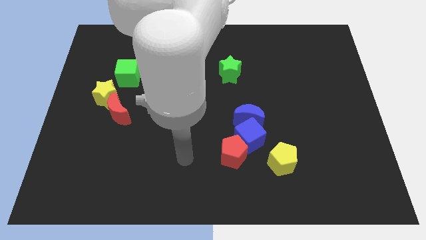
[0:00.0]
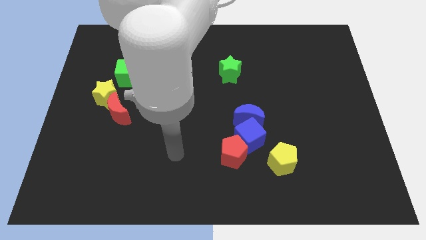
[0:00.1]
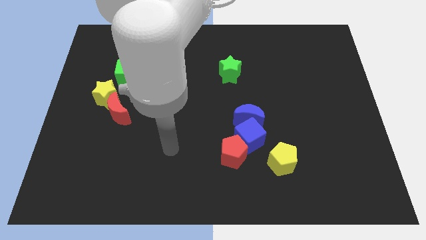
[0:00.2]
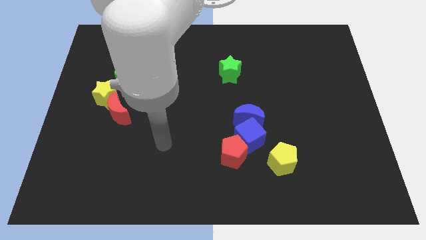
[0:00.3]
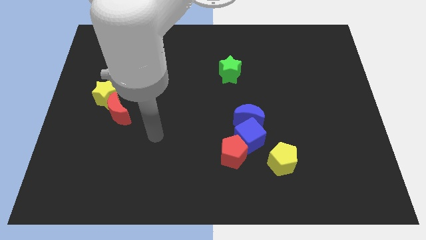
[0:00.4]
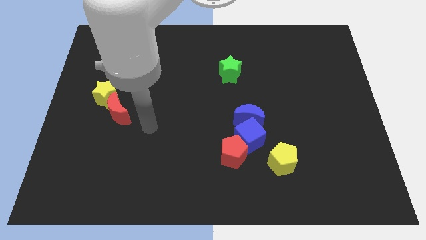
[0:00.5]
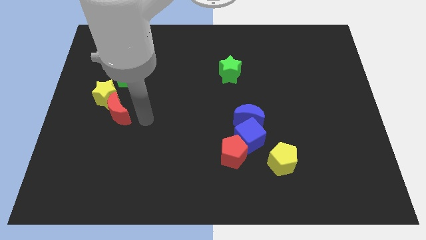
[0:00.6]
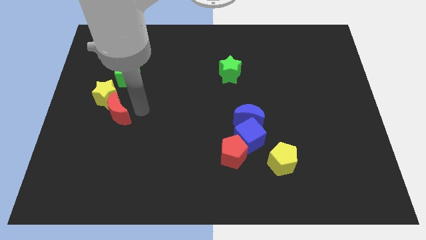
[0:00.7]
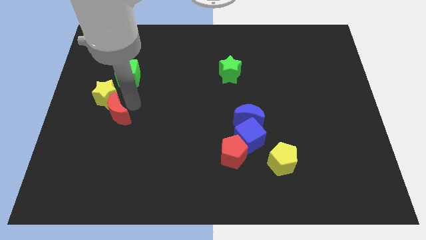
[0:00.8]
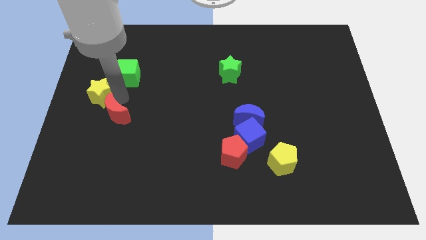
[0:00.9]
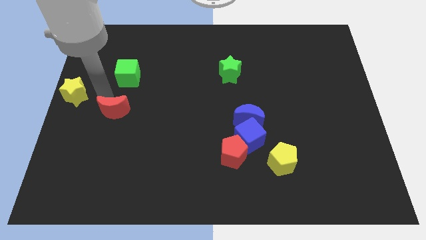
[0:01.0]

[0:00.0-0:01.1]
move the red moon away from the yellow star

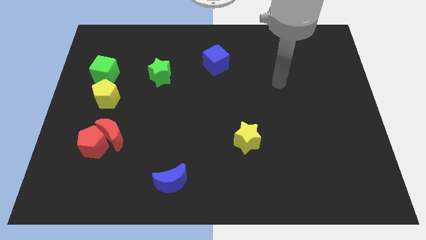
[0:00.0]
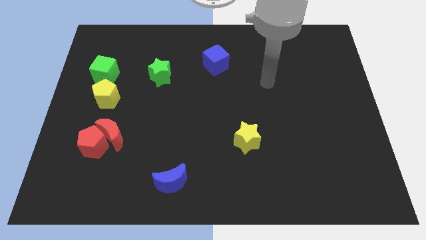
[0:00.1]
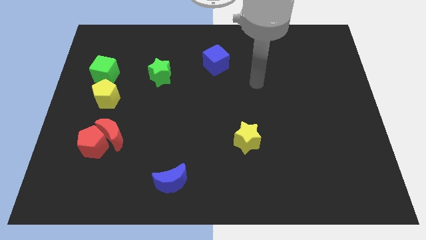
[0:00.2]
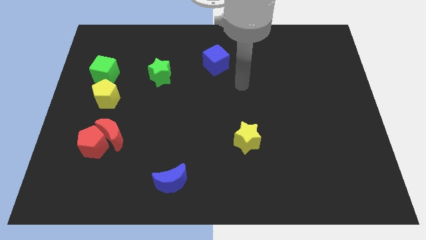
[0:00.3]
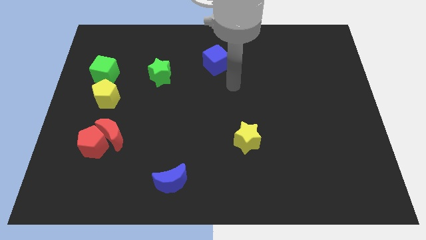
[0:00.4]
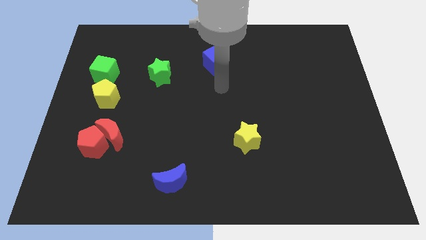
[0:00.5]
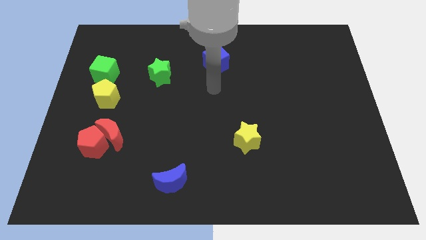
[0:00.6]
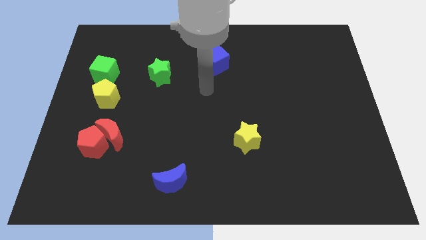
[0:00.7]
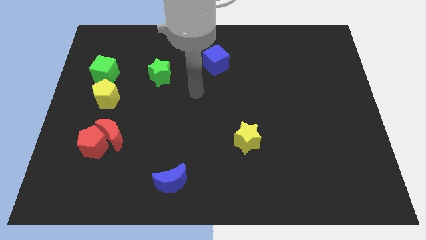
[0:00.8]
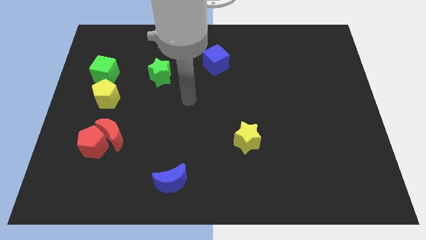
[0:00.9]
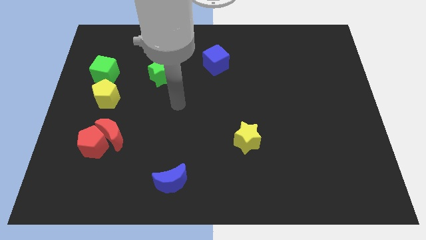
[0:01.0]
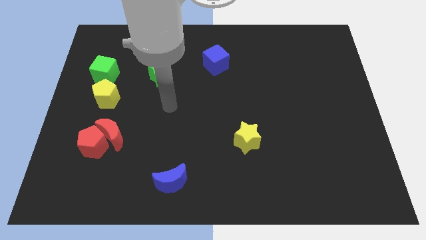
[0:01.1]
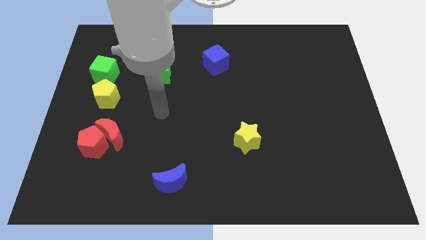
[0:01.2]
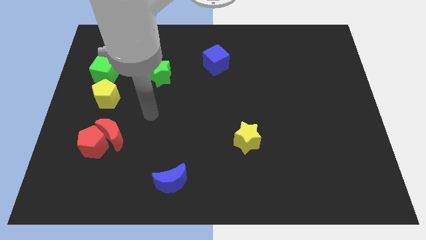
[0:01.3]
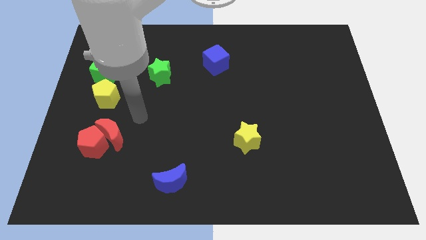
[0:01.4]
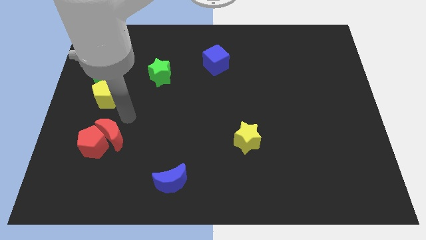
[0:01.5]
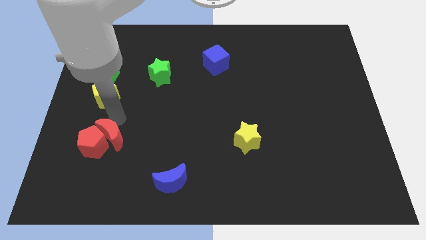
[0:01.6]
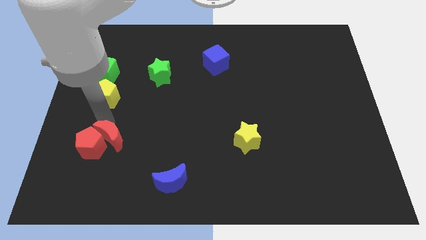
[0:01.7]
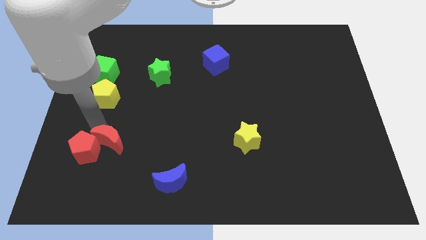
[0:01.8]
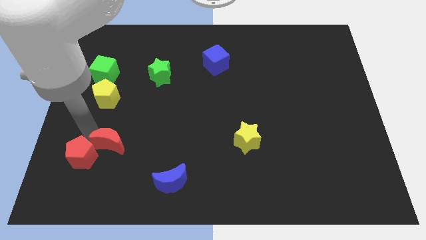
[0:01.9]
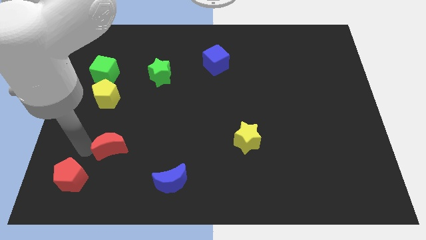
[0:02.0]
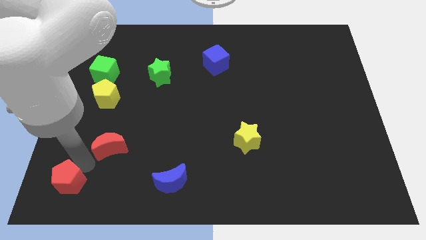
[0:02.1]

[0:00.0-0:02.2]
pull the red moon apart from the red pentagon

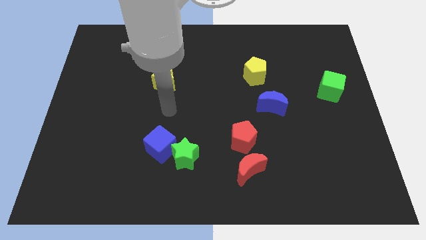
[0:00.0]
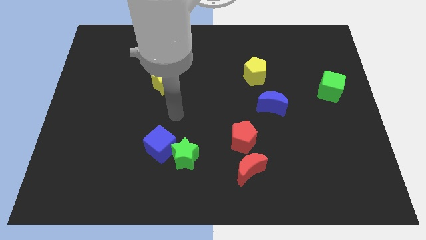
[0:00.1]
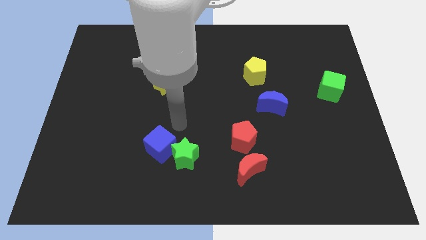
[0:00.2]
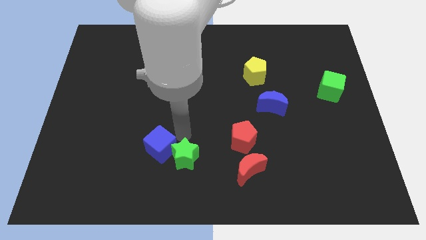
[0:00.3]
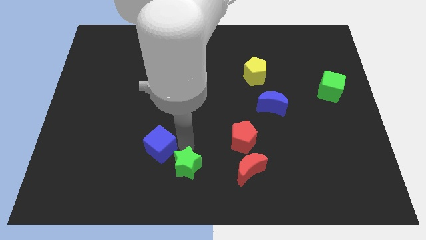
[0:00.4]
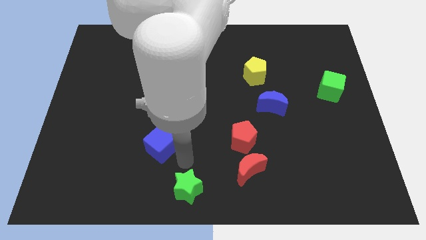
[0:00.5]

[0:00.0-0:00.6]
separate the blue cube from the green star

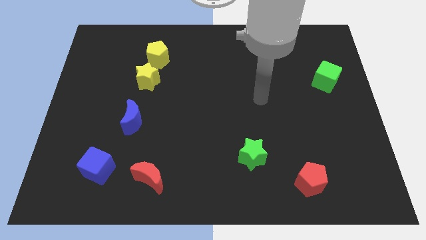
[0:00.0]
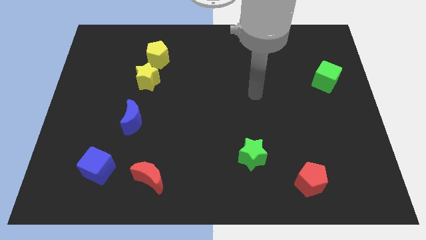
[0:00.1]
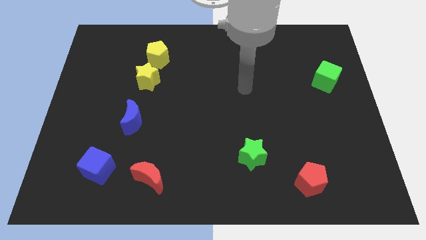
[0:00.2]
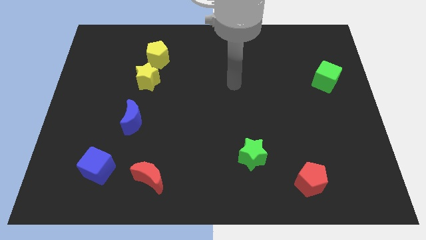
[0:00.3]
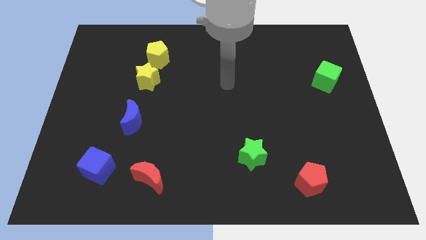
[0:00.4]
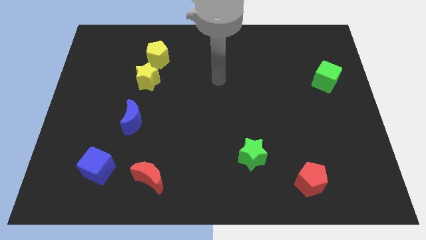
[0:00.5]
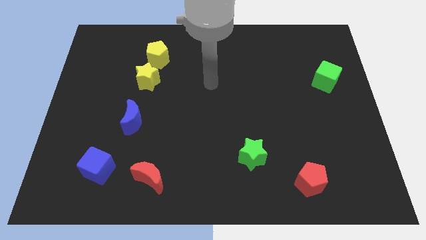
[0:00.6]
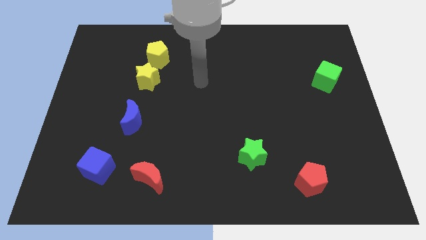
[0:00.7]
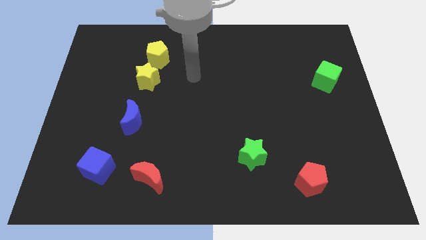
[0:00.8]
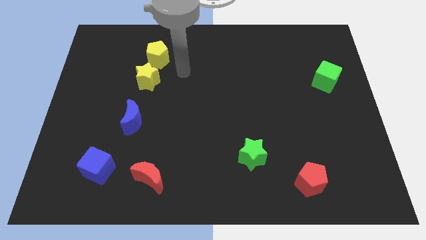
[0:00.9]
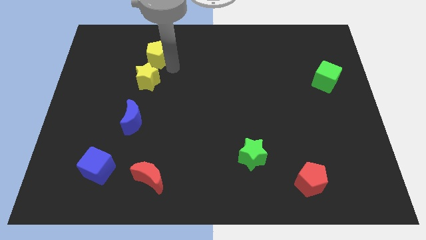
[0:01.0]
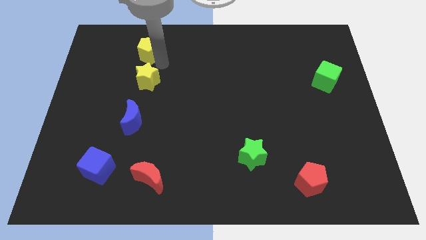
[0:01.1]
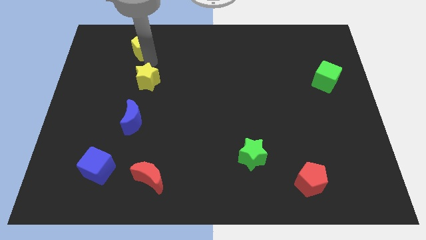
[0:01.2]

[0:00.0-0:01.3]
pull the yellow star apart from the yellow pentagon

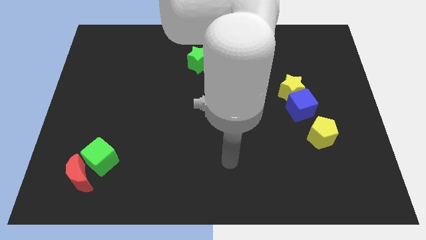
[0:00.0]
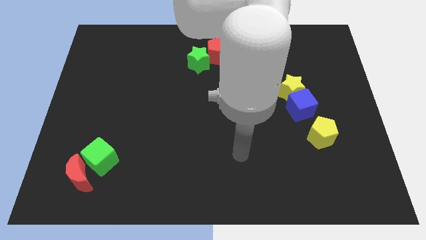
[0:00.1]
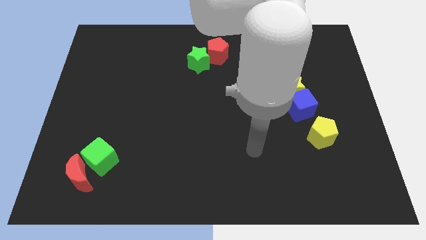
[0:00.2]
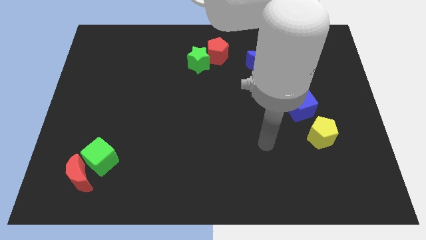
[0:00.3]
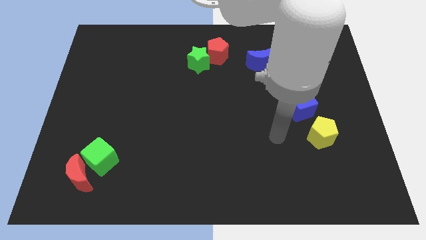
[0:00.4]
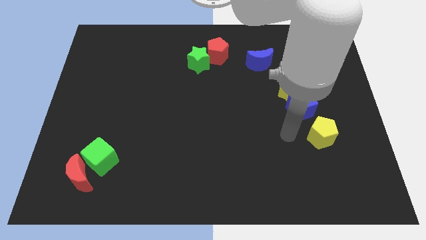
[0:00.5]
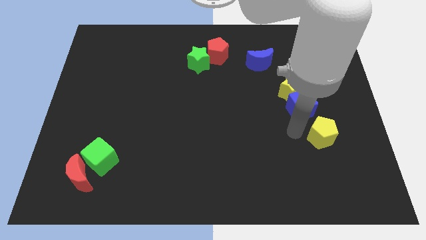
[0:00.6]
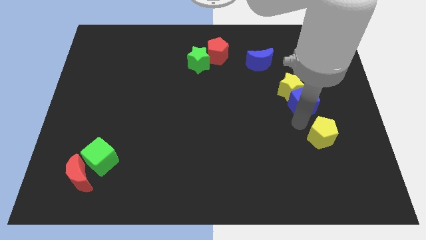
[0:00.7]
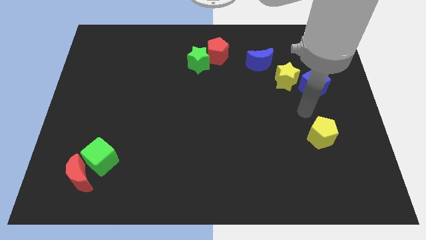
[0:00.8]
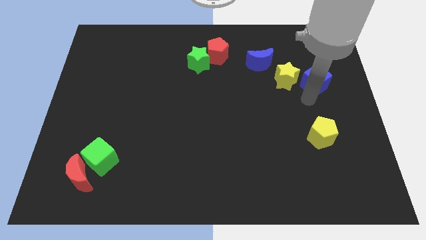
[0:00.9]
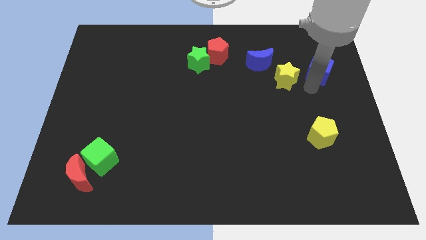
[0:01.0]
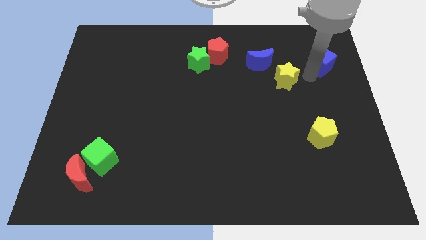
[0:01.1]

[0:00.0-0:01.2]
pull the yellow star apart from the blue cube

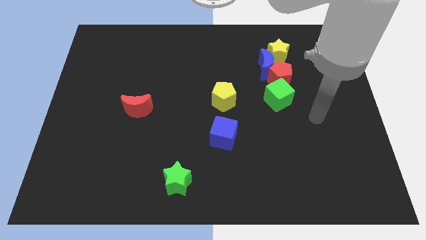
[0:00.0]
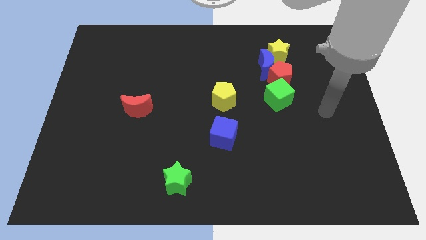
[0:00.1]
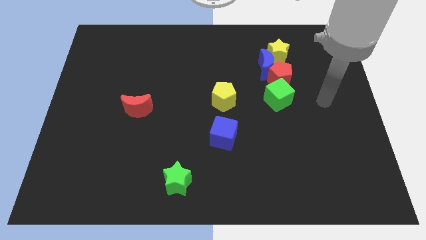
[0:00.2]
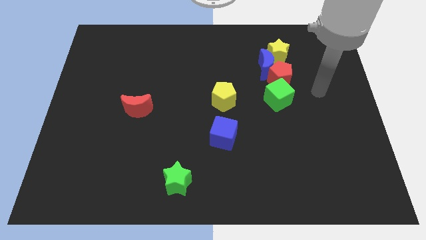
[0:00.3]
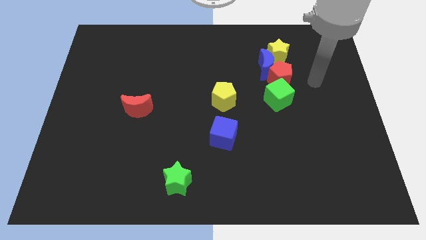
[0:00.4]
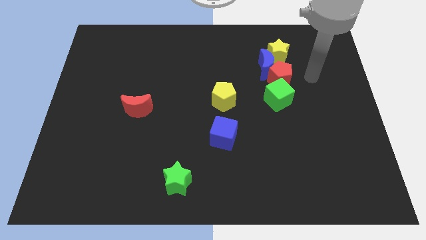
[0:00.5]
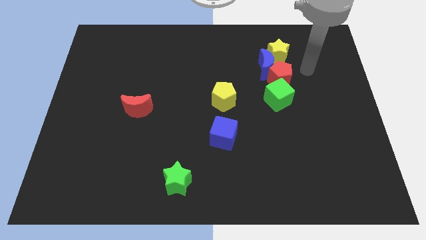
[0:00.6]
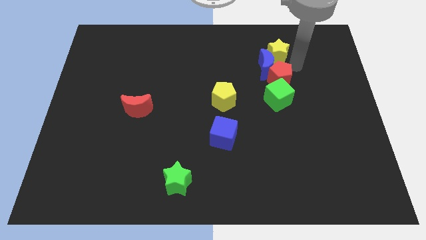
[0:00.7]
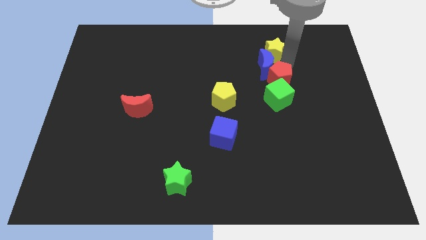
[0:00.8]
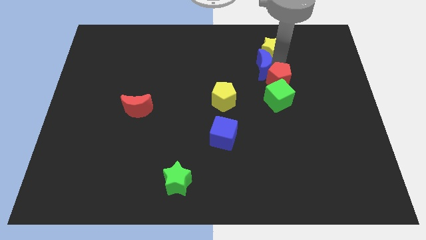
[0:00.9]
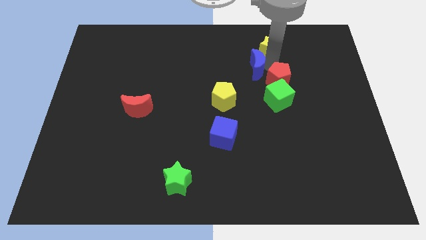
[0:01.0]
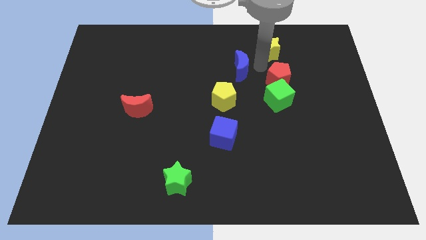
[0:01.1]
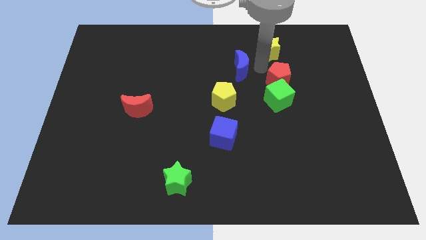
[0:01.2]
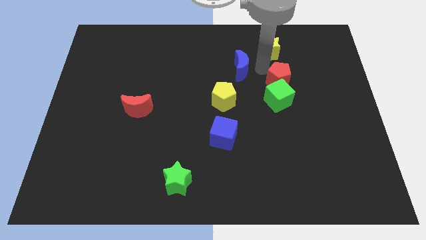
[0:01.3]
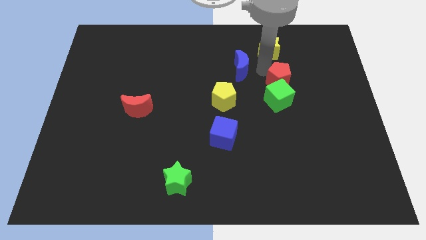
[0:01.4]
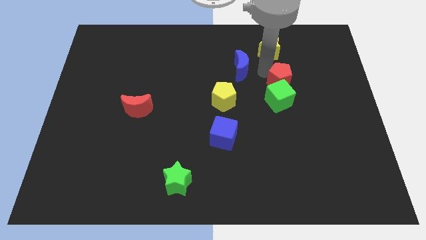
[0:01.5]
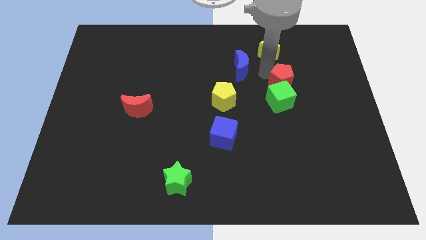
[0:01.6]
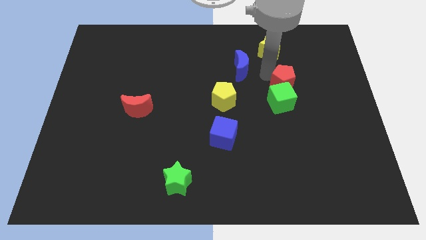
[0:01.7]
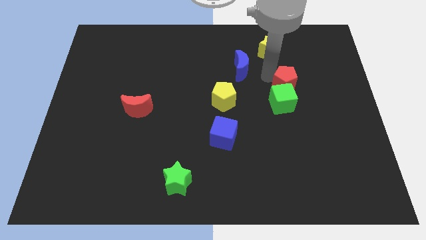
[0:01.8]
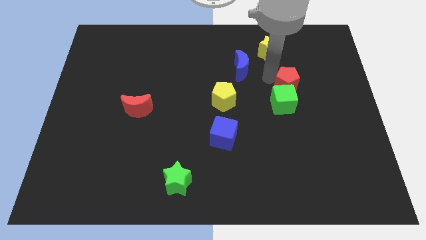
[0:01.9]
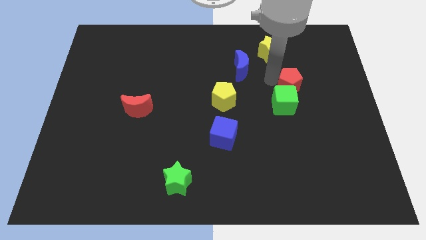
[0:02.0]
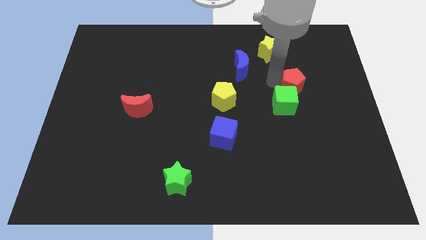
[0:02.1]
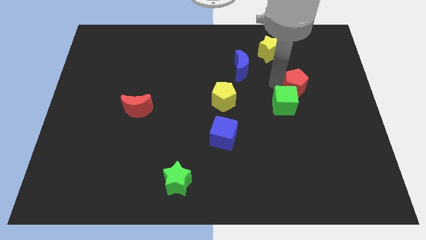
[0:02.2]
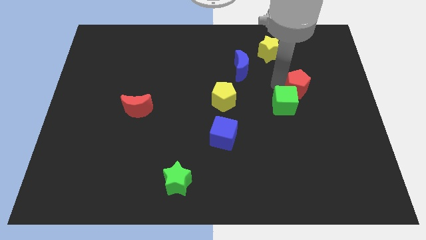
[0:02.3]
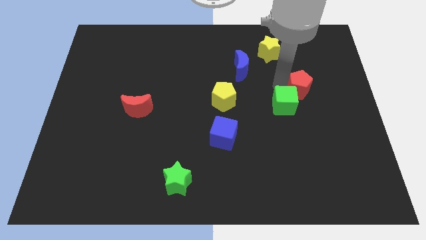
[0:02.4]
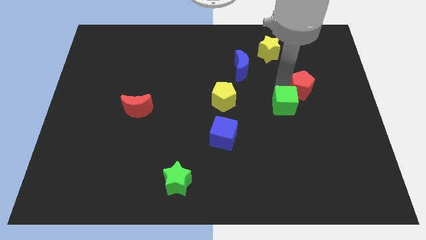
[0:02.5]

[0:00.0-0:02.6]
separate the red pentagon from the blue moon, green cube, and yellow star

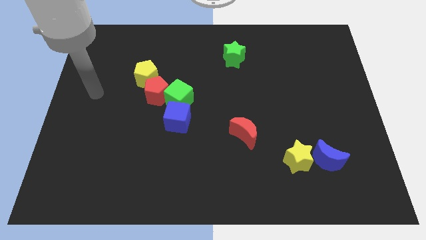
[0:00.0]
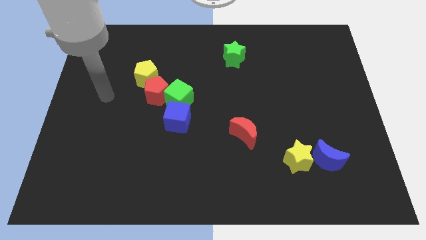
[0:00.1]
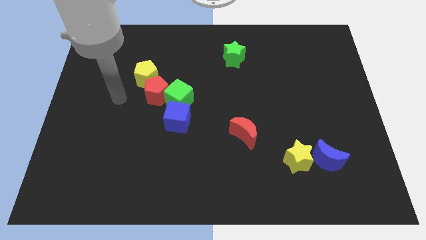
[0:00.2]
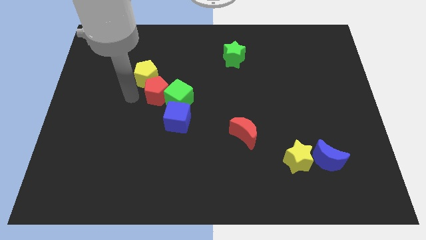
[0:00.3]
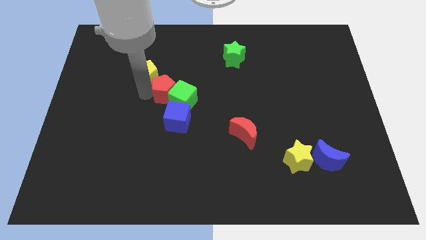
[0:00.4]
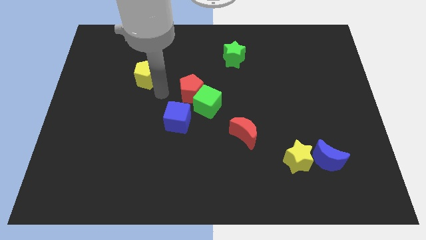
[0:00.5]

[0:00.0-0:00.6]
pull the yellow pentagon apart from the red pentagon
